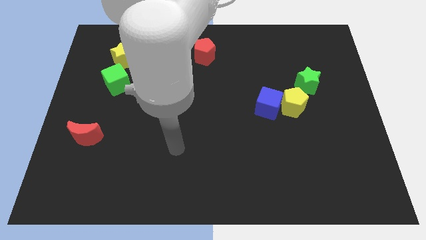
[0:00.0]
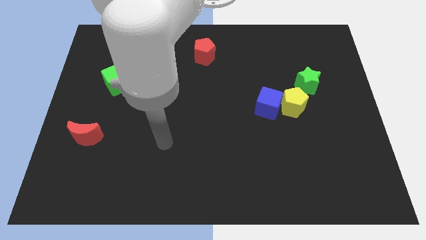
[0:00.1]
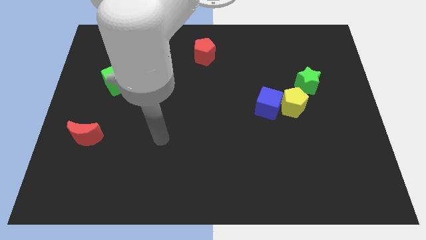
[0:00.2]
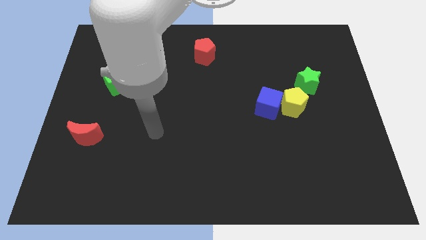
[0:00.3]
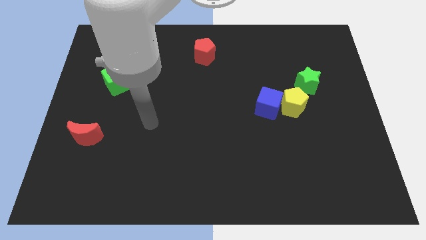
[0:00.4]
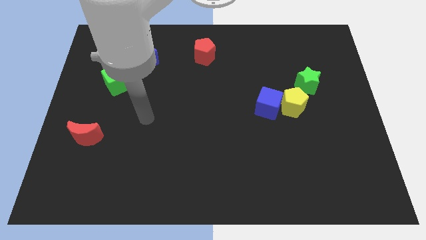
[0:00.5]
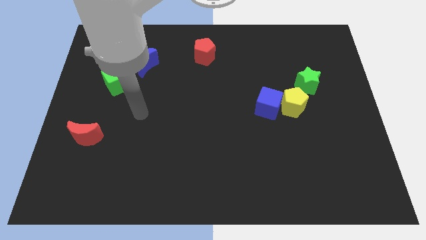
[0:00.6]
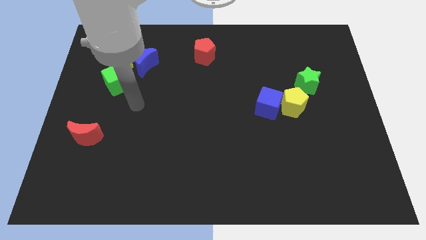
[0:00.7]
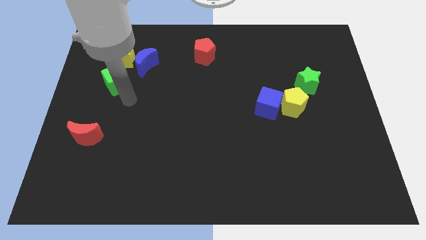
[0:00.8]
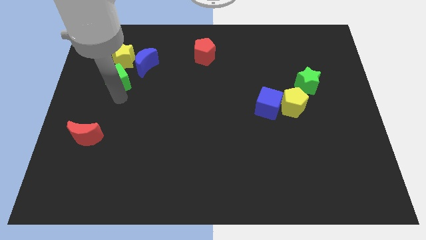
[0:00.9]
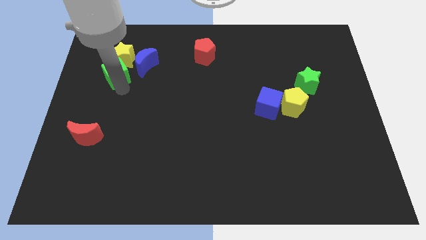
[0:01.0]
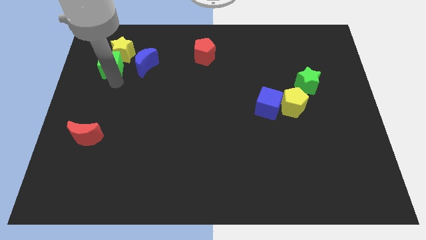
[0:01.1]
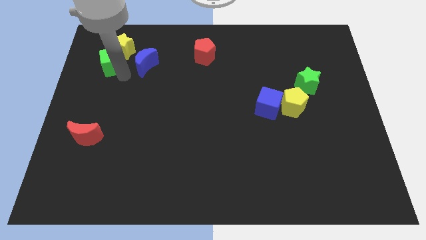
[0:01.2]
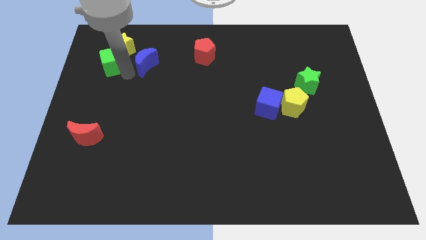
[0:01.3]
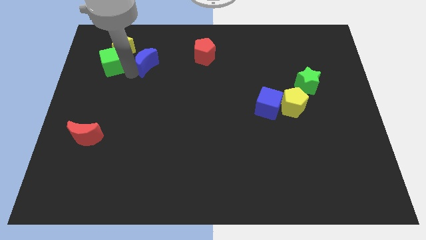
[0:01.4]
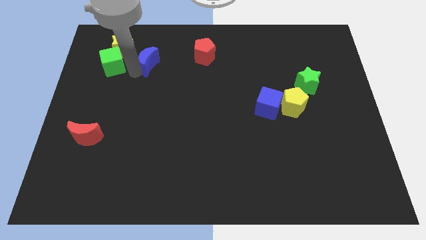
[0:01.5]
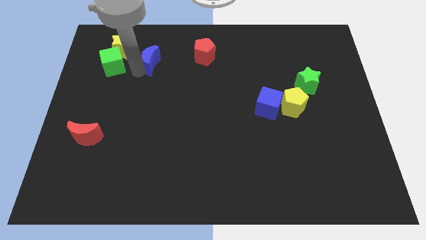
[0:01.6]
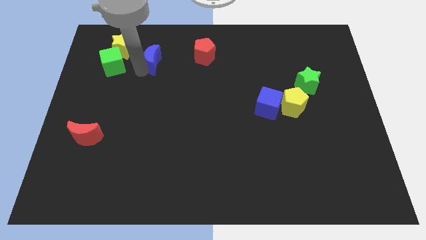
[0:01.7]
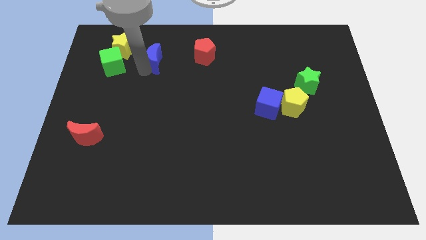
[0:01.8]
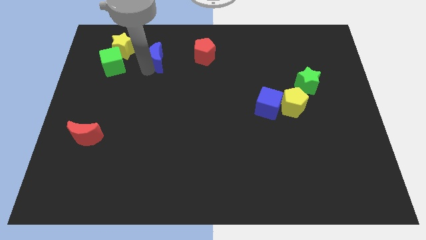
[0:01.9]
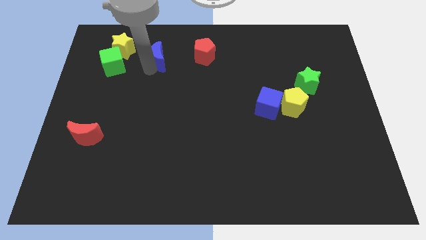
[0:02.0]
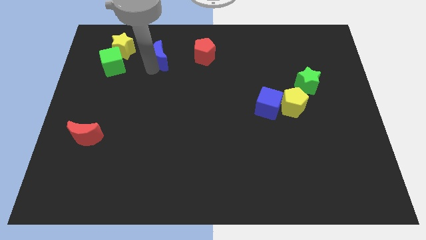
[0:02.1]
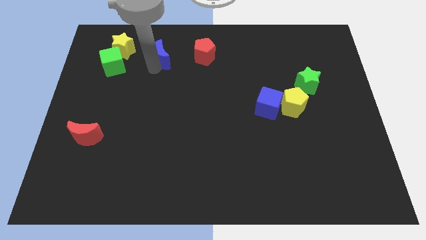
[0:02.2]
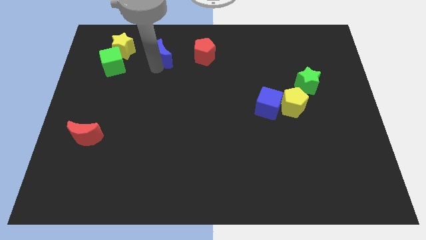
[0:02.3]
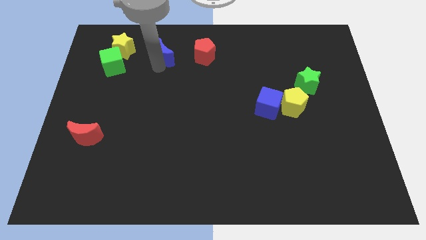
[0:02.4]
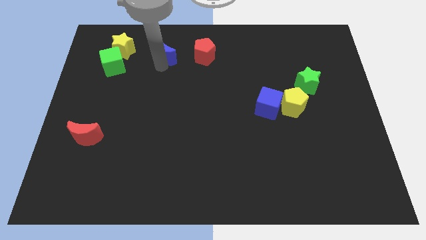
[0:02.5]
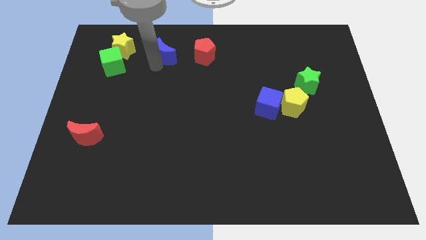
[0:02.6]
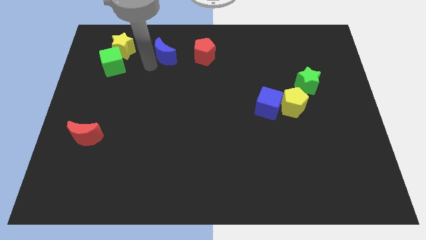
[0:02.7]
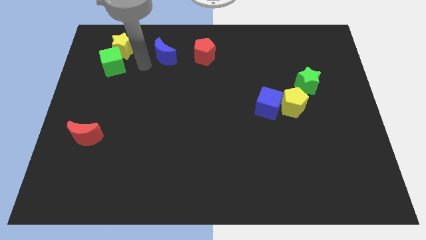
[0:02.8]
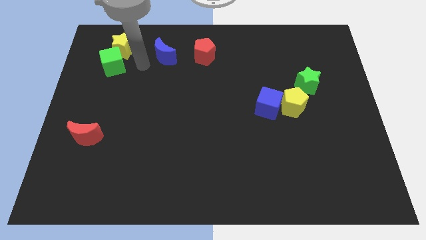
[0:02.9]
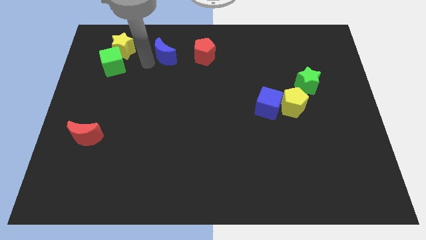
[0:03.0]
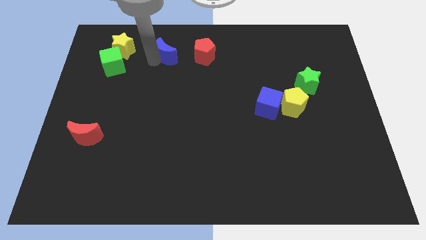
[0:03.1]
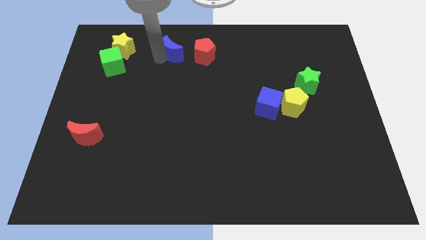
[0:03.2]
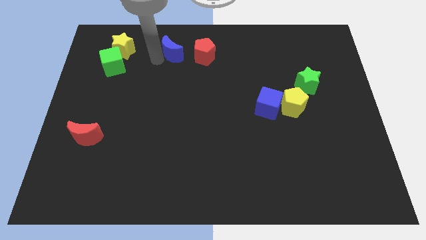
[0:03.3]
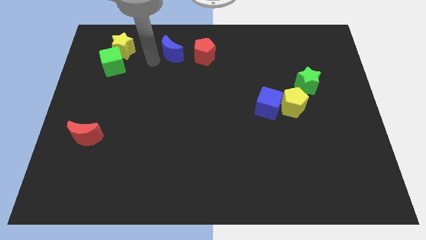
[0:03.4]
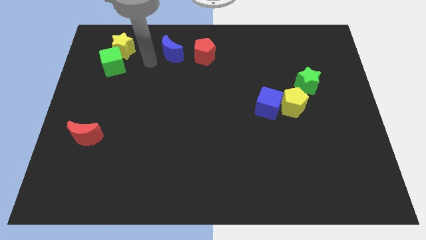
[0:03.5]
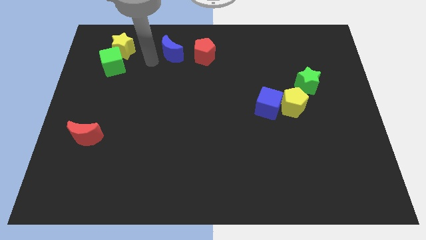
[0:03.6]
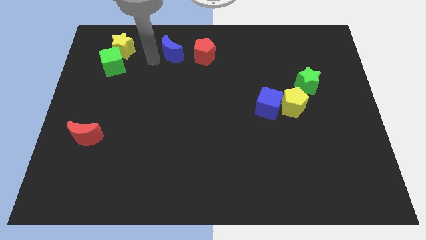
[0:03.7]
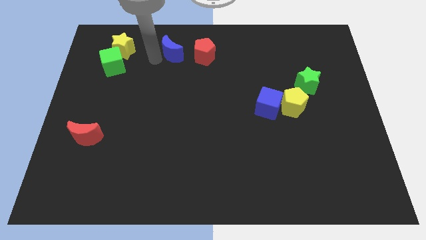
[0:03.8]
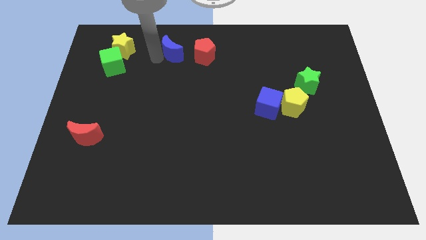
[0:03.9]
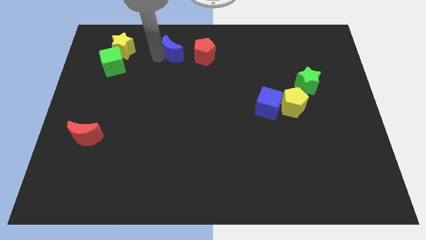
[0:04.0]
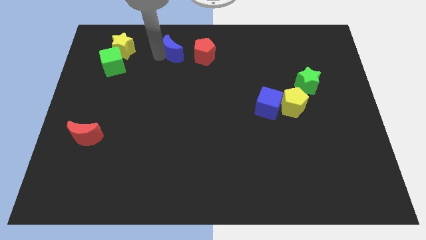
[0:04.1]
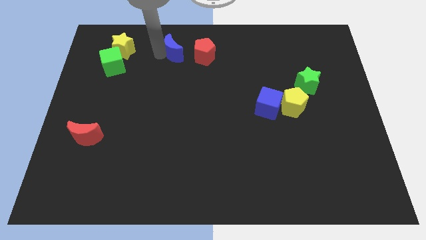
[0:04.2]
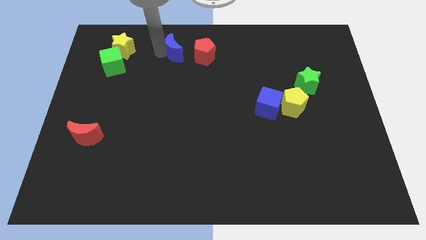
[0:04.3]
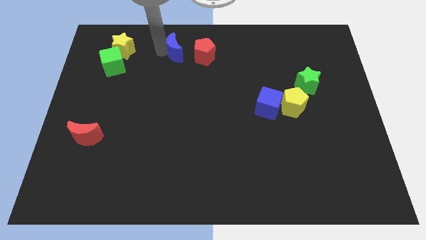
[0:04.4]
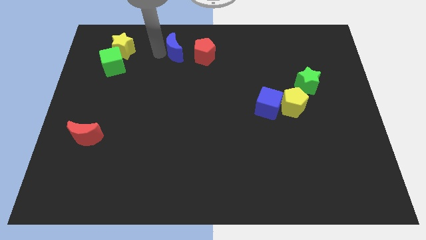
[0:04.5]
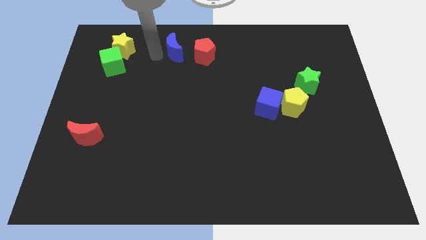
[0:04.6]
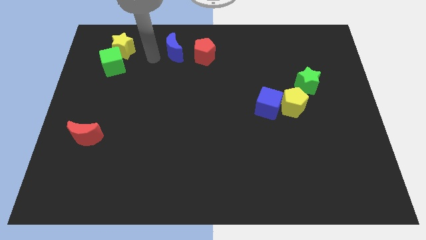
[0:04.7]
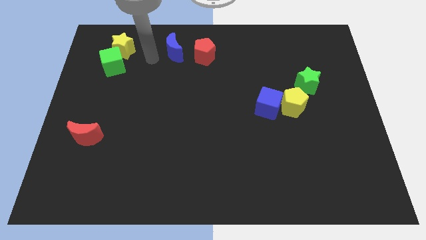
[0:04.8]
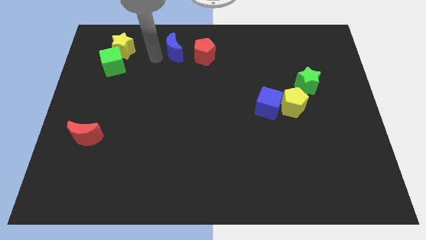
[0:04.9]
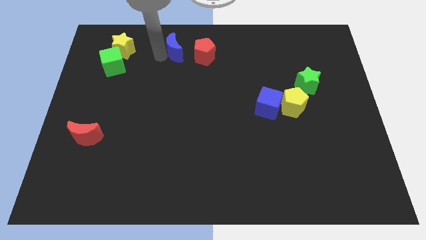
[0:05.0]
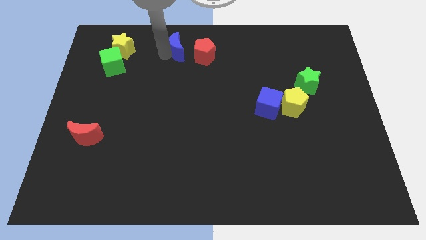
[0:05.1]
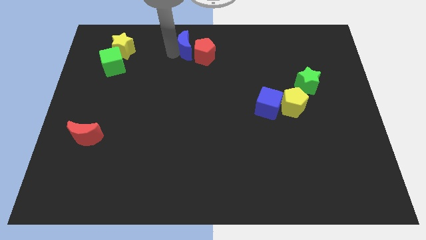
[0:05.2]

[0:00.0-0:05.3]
put the blue moon to the towards your base
